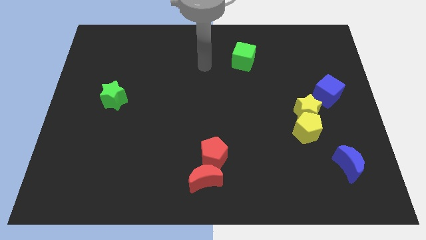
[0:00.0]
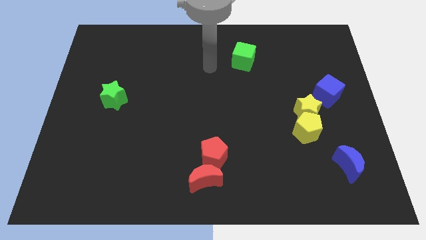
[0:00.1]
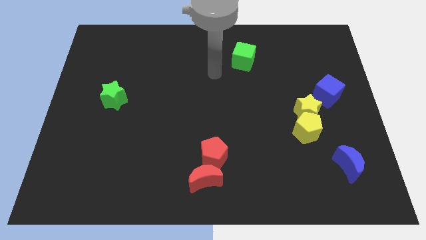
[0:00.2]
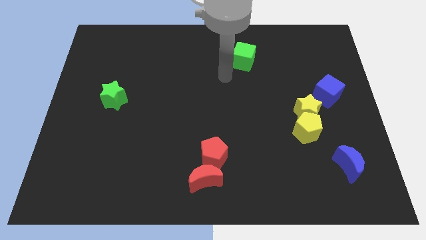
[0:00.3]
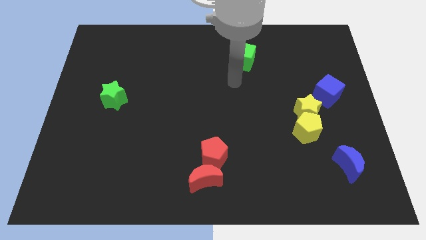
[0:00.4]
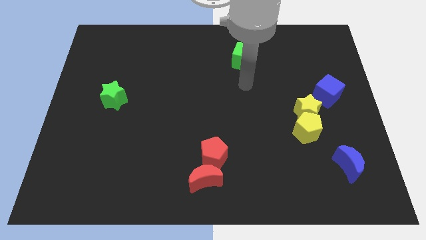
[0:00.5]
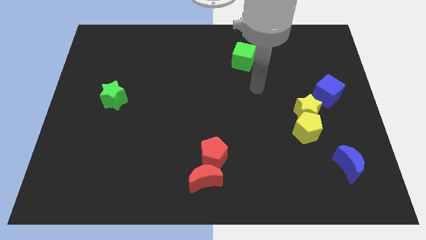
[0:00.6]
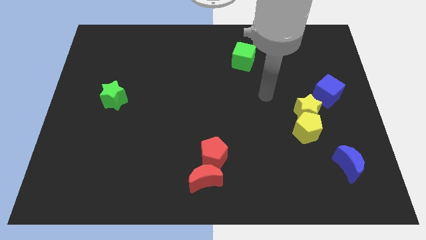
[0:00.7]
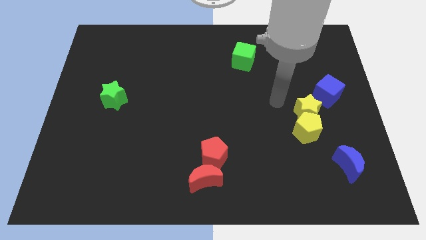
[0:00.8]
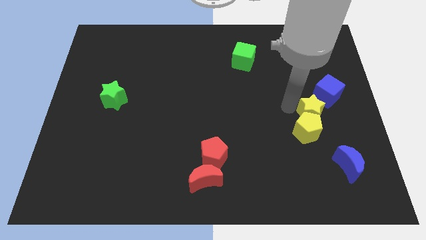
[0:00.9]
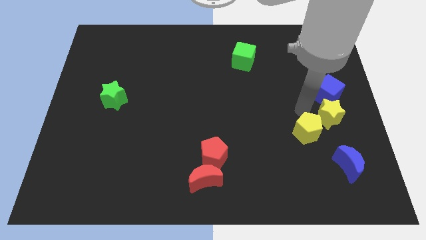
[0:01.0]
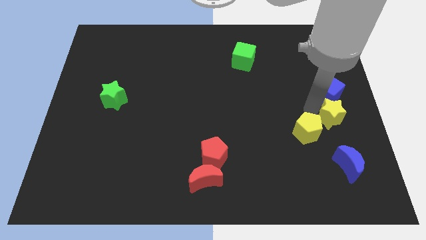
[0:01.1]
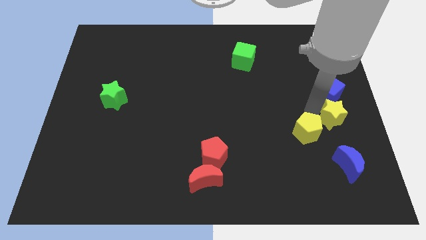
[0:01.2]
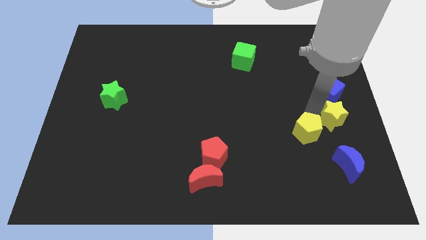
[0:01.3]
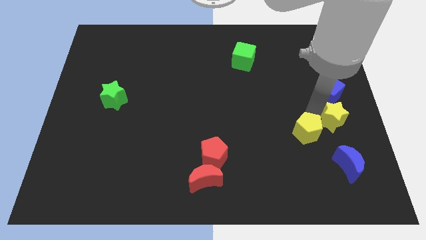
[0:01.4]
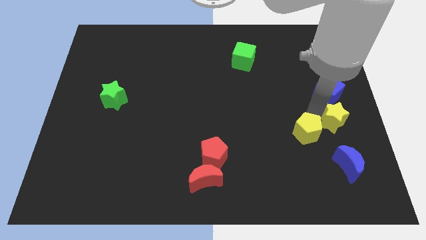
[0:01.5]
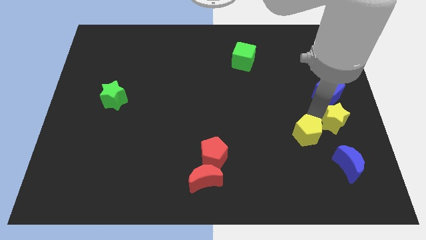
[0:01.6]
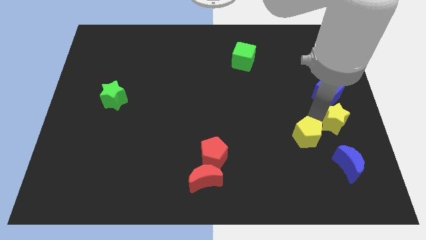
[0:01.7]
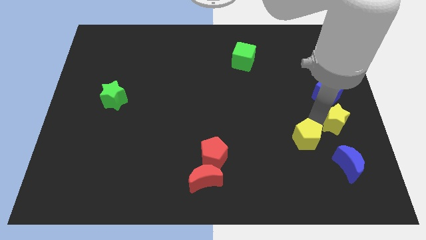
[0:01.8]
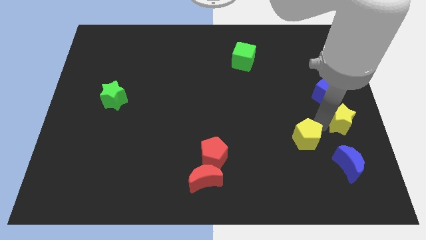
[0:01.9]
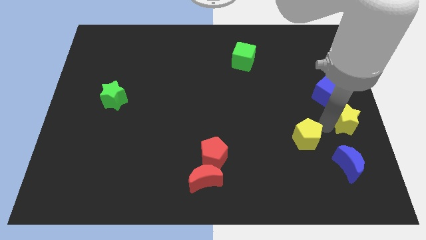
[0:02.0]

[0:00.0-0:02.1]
pull the yellow pentagon apart from the yellow star

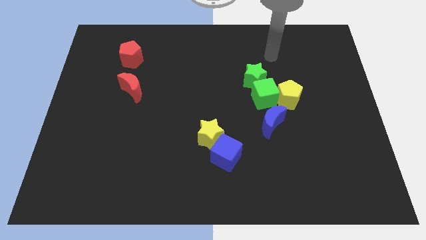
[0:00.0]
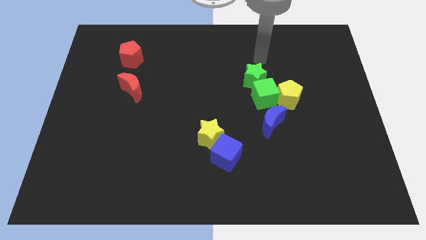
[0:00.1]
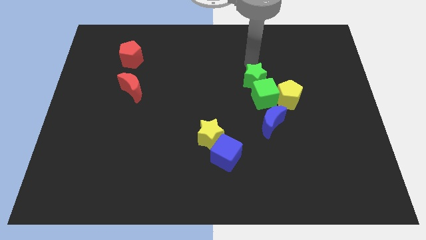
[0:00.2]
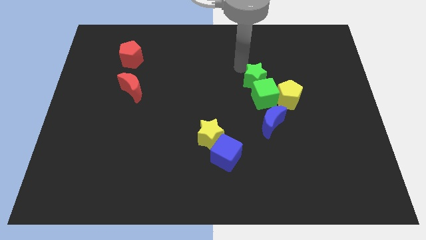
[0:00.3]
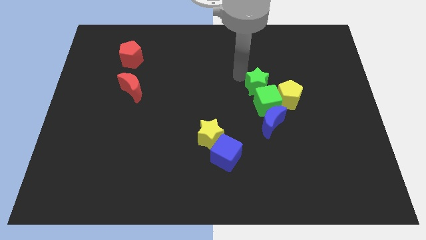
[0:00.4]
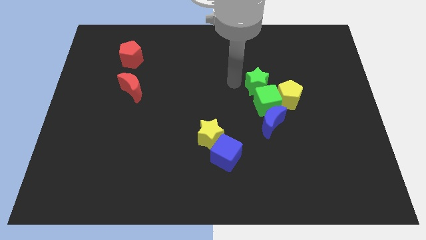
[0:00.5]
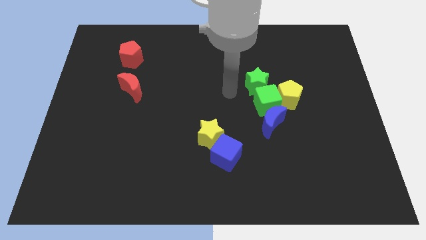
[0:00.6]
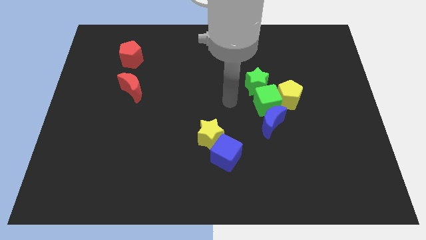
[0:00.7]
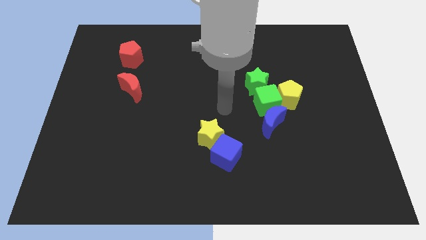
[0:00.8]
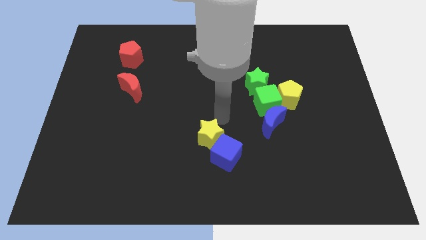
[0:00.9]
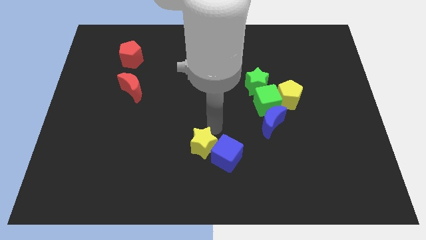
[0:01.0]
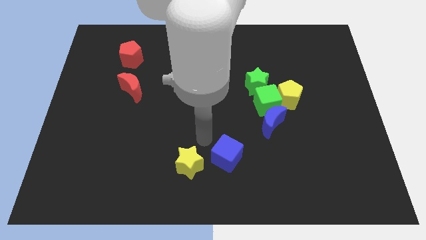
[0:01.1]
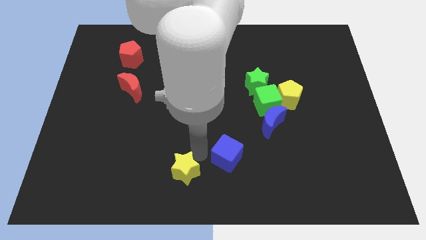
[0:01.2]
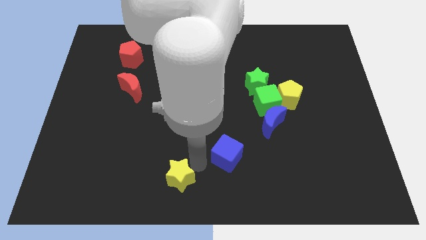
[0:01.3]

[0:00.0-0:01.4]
separate the blue cube from the yellow star

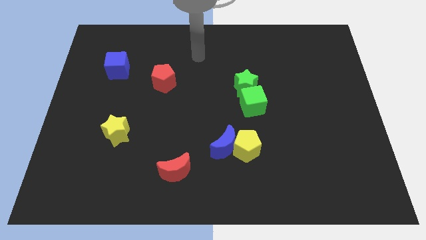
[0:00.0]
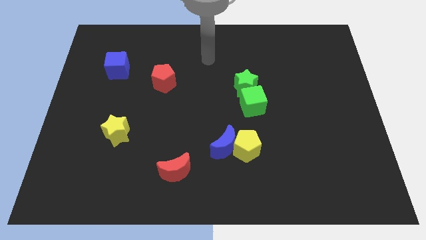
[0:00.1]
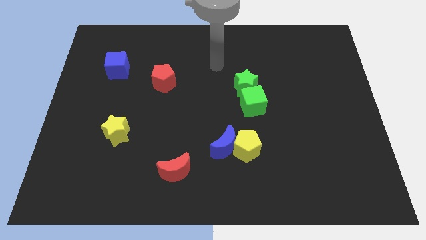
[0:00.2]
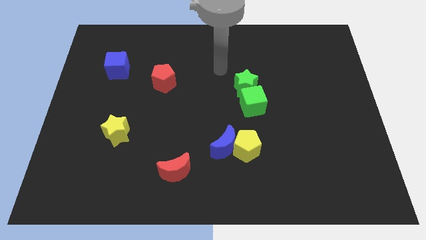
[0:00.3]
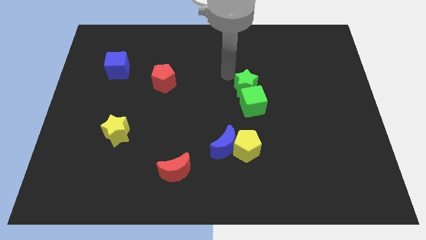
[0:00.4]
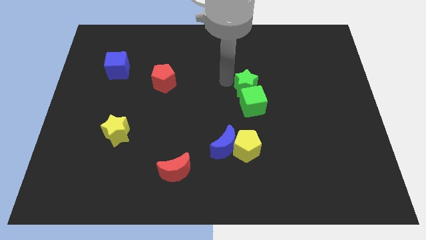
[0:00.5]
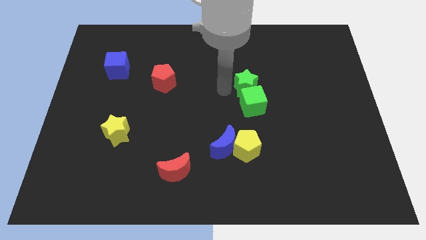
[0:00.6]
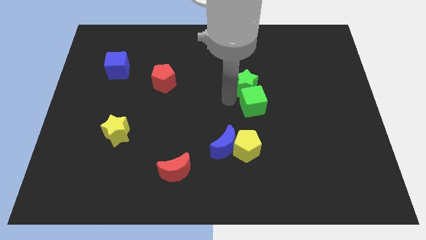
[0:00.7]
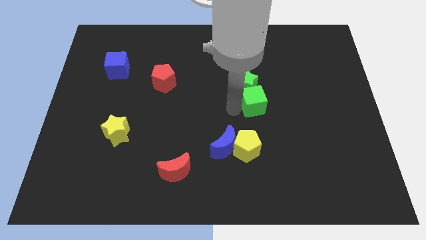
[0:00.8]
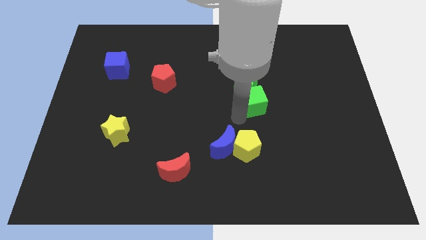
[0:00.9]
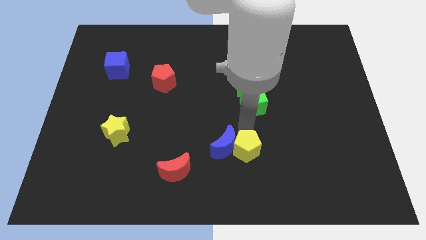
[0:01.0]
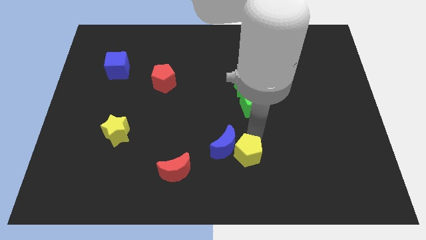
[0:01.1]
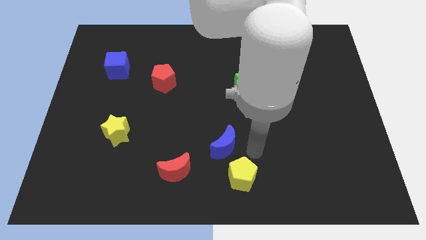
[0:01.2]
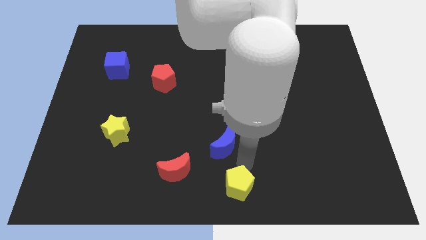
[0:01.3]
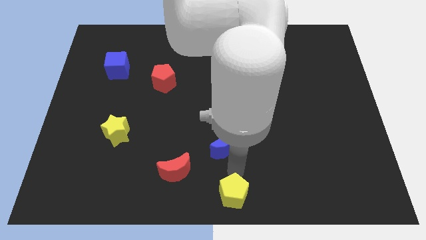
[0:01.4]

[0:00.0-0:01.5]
pull the blue moon apart from the yellow pentagon

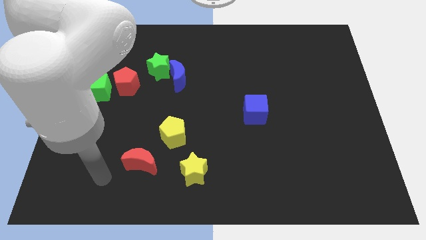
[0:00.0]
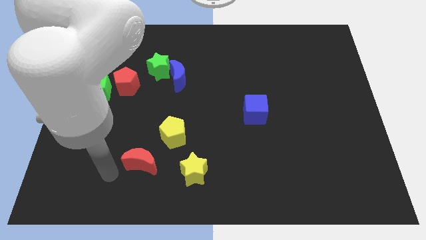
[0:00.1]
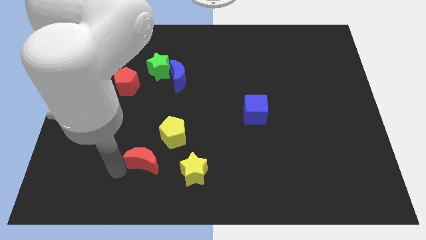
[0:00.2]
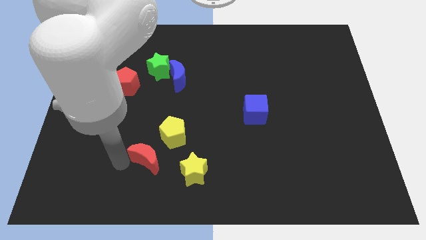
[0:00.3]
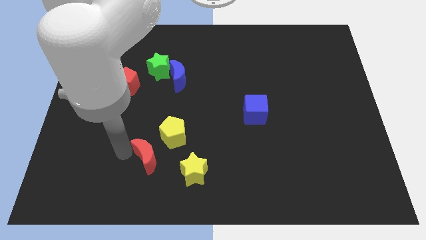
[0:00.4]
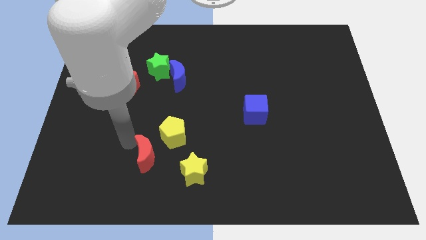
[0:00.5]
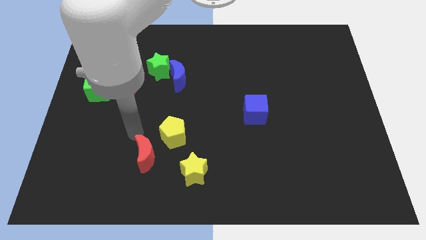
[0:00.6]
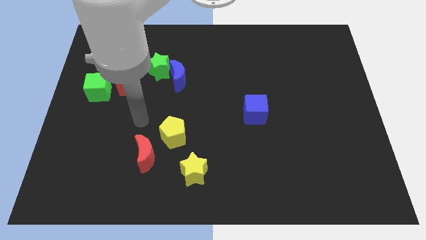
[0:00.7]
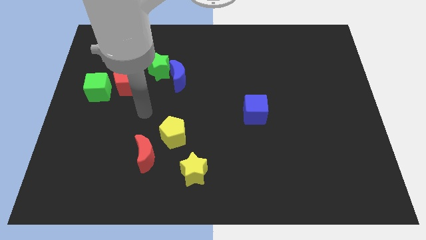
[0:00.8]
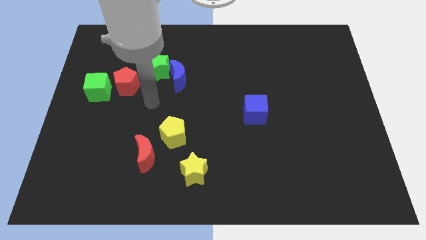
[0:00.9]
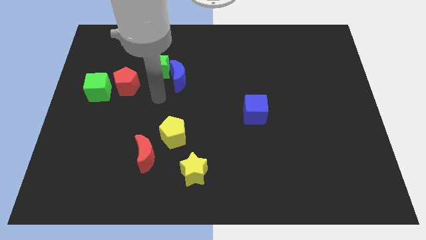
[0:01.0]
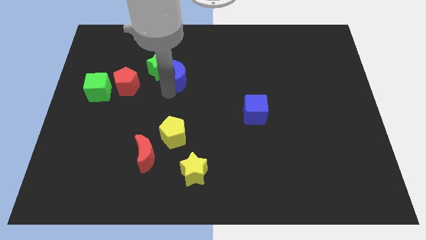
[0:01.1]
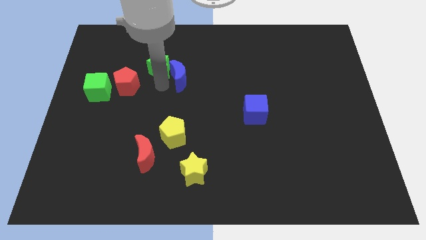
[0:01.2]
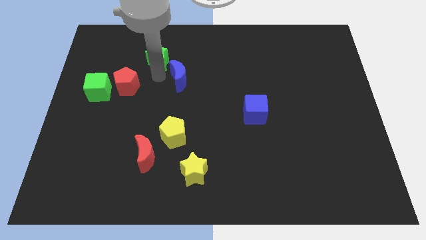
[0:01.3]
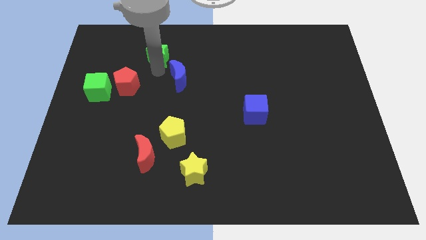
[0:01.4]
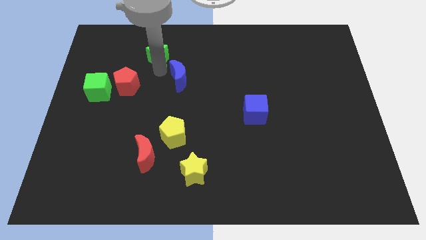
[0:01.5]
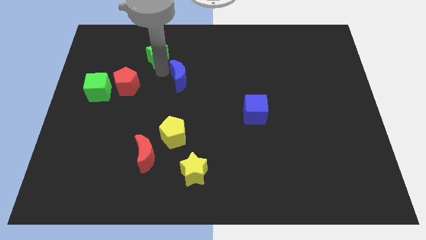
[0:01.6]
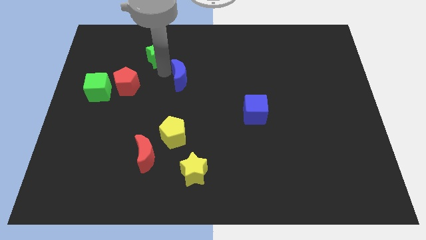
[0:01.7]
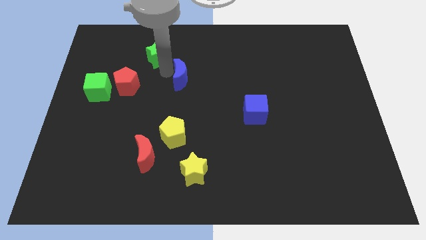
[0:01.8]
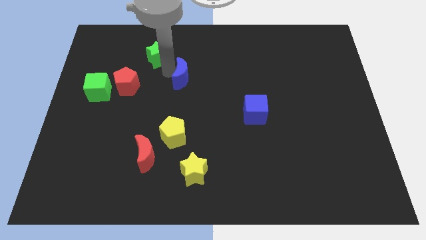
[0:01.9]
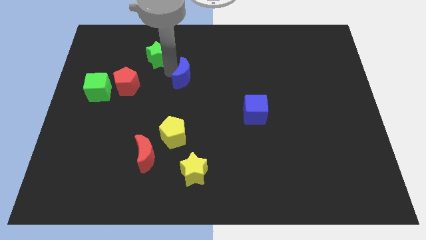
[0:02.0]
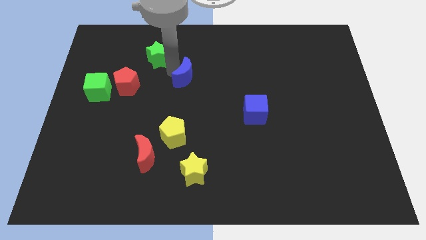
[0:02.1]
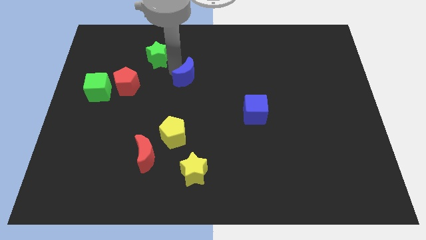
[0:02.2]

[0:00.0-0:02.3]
pull the blue moon apart from the green star

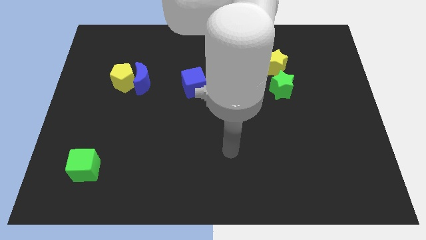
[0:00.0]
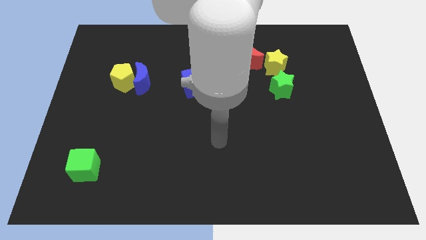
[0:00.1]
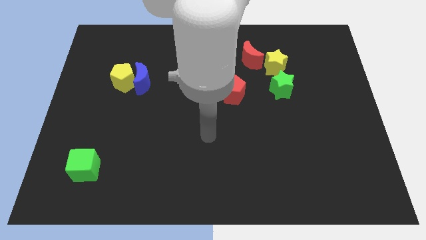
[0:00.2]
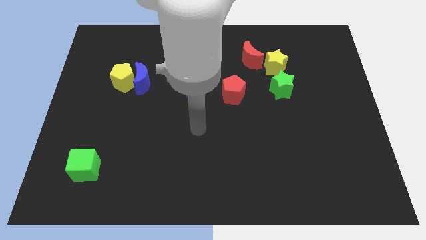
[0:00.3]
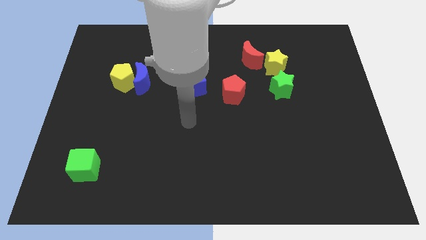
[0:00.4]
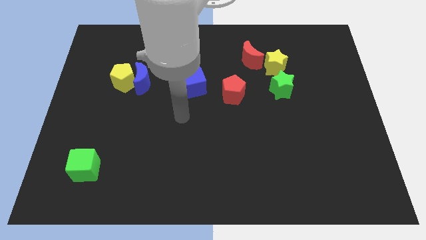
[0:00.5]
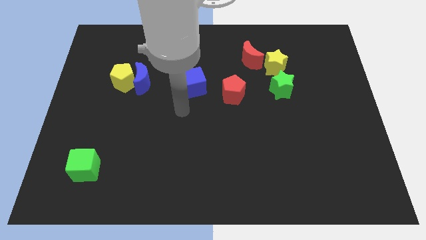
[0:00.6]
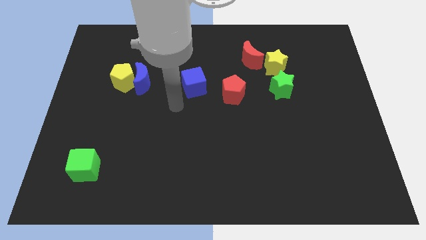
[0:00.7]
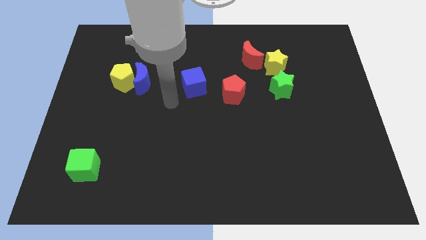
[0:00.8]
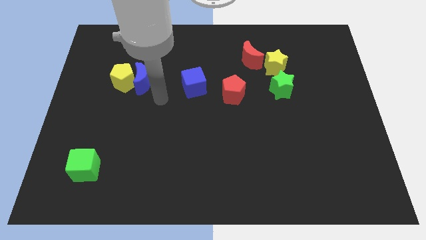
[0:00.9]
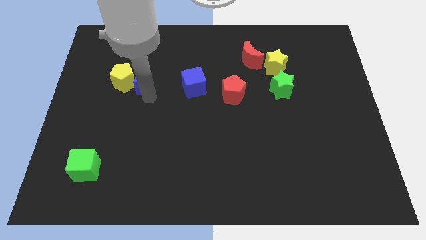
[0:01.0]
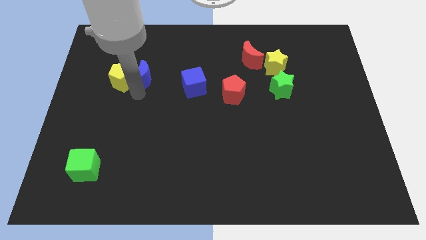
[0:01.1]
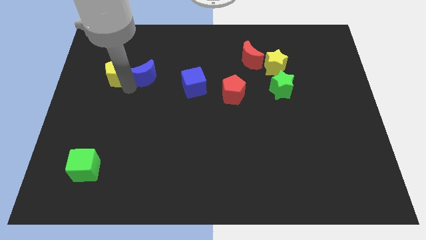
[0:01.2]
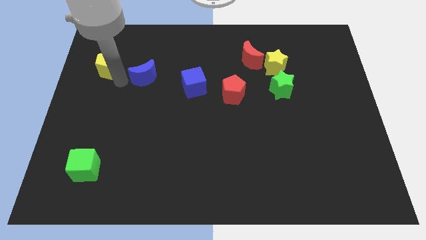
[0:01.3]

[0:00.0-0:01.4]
separate the blue moon from the yellow pentagon

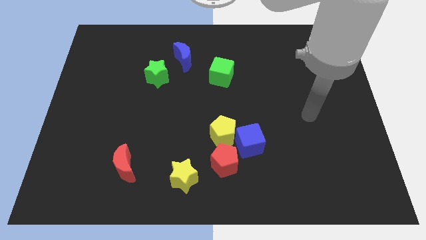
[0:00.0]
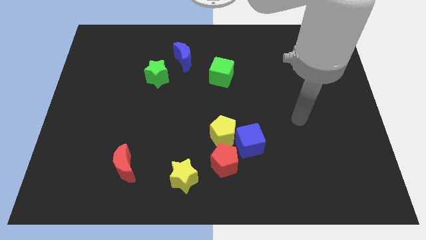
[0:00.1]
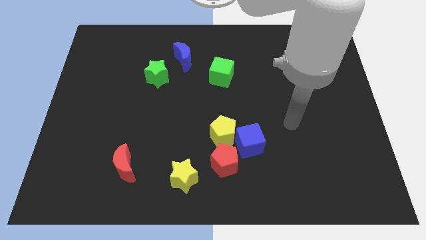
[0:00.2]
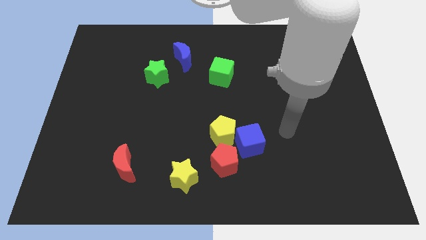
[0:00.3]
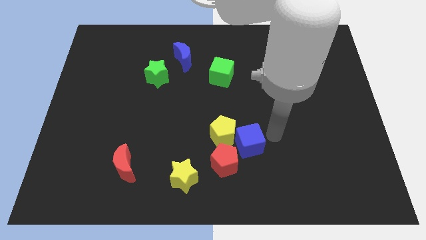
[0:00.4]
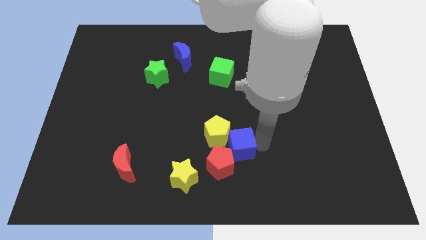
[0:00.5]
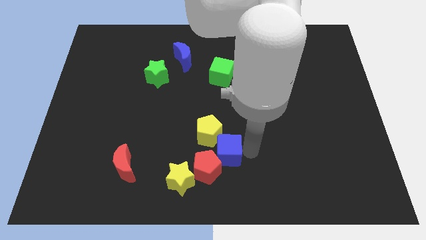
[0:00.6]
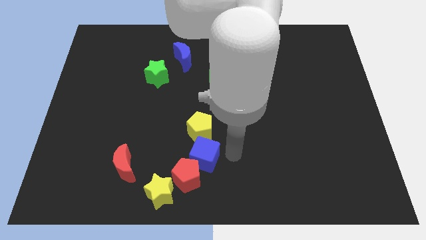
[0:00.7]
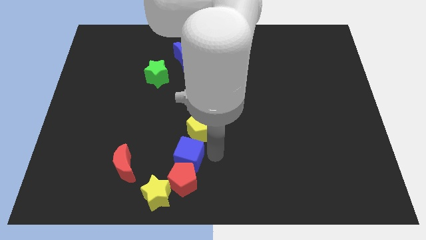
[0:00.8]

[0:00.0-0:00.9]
pull the yellow pentagon apart from the blue cube and red pentagon
